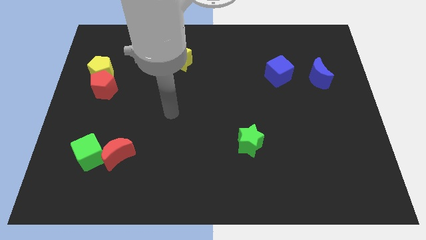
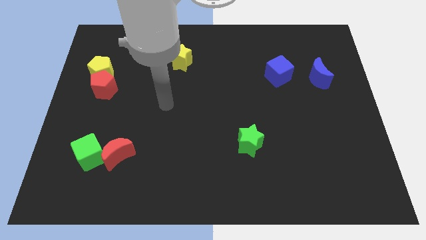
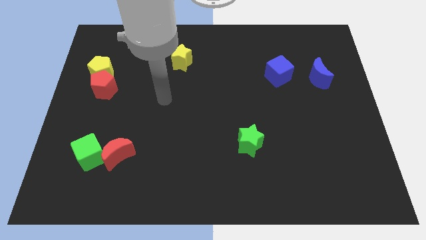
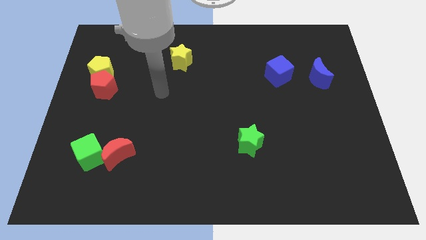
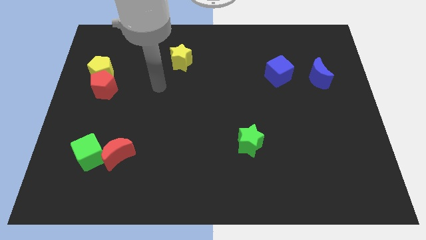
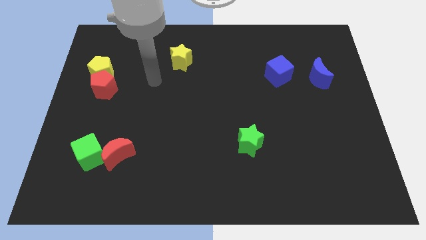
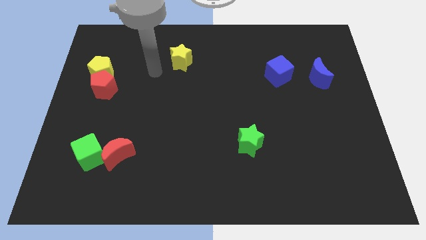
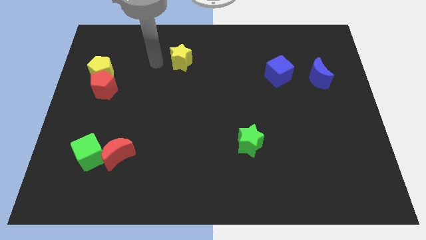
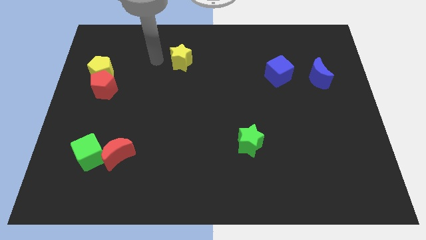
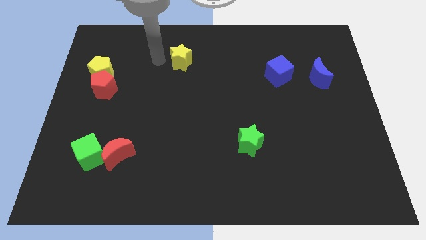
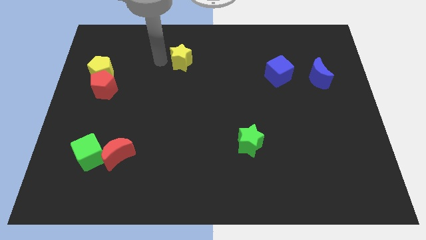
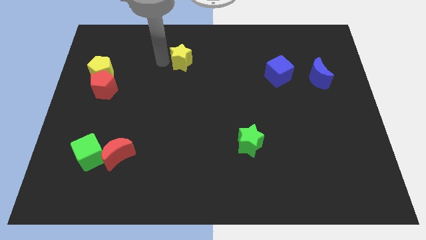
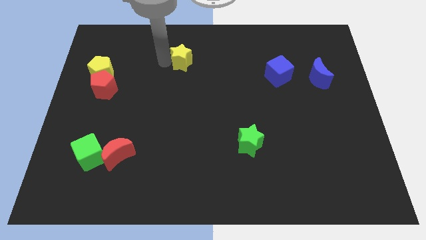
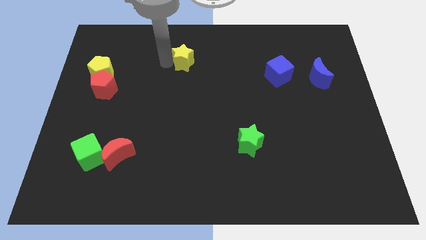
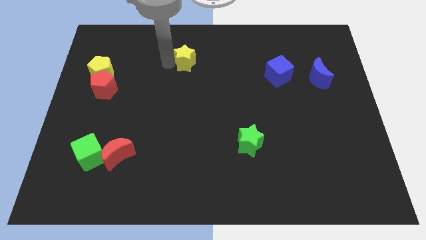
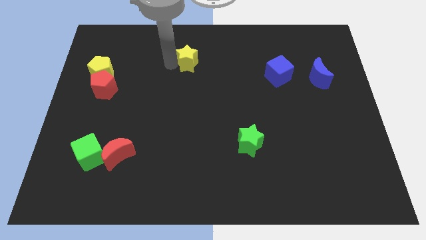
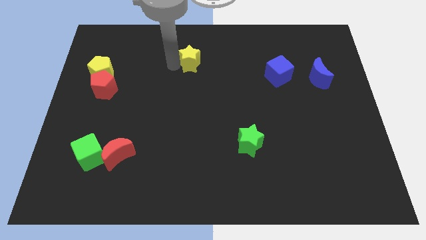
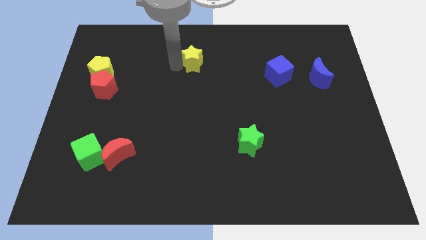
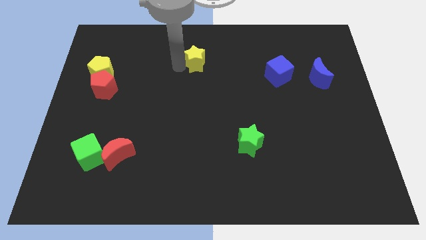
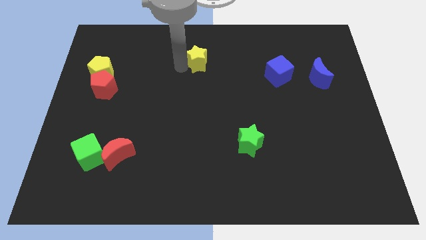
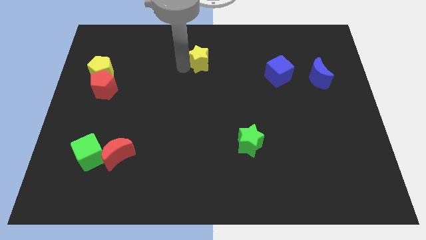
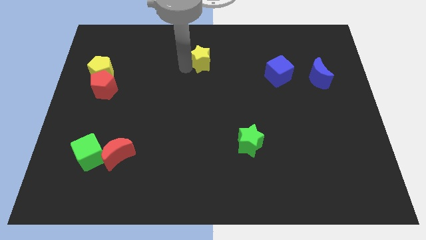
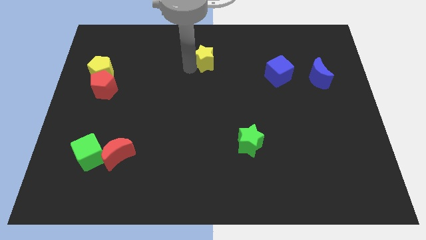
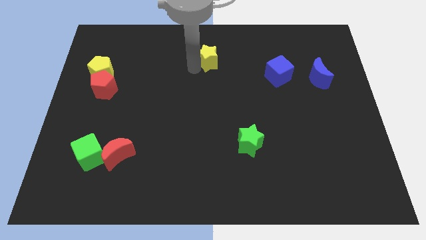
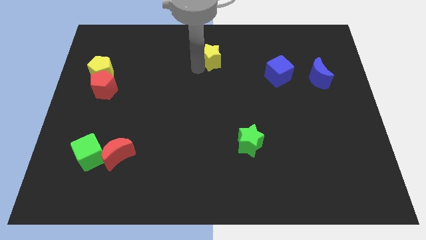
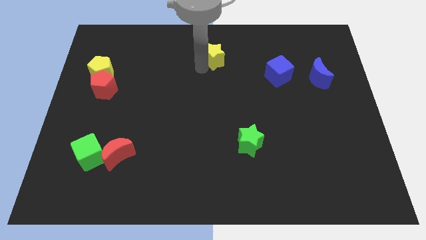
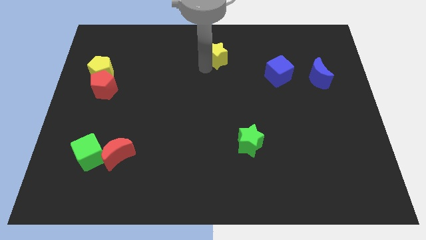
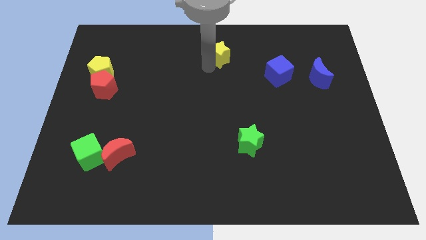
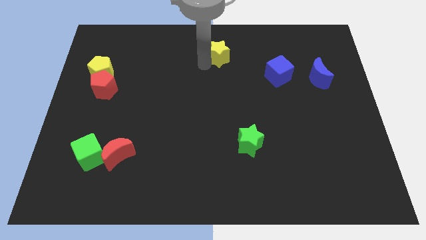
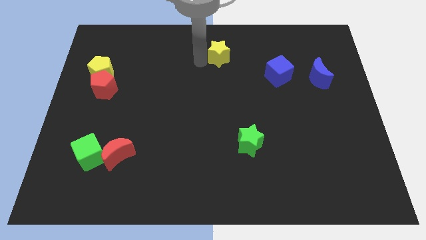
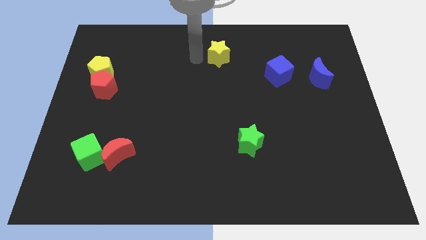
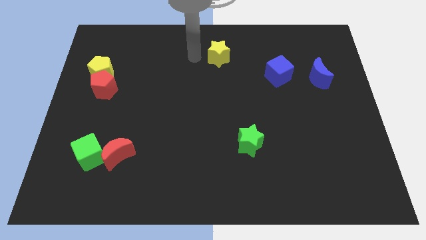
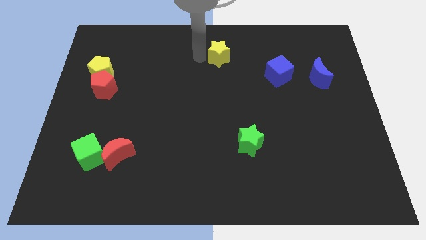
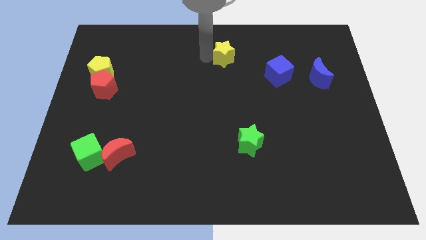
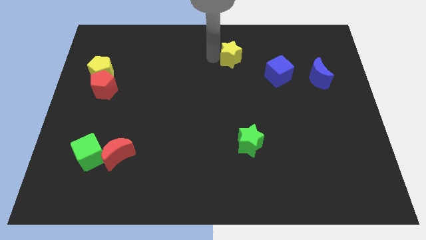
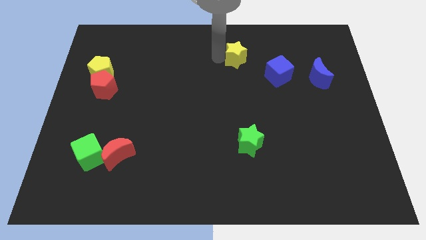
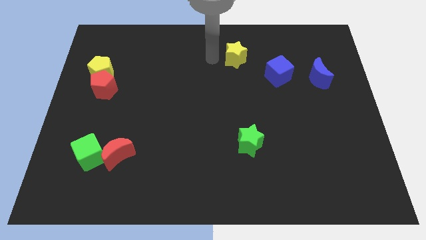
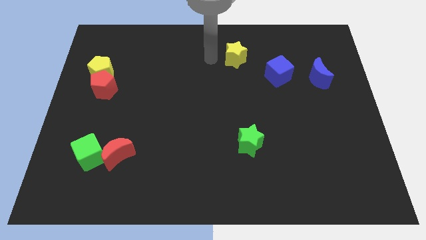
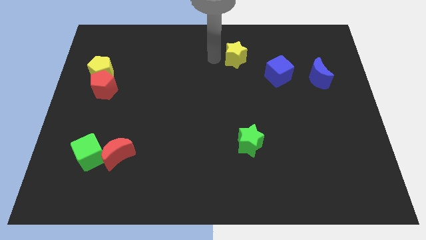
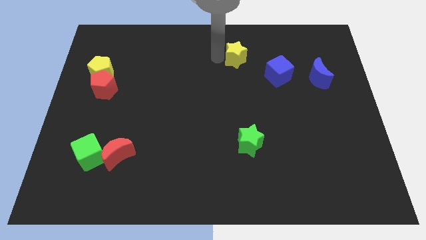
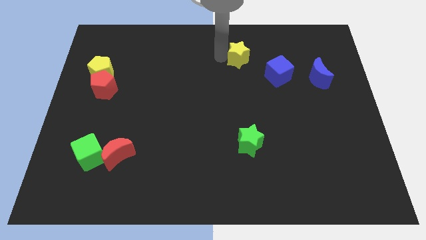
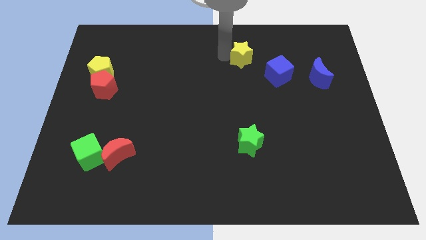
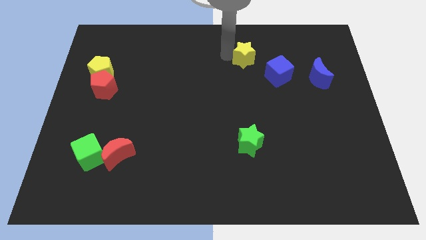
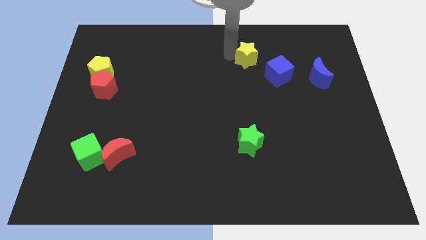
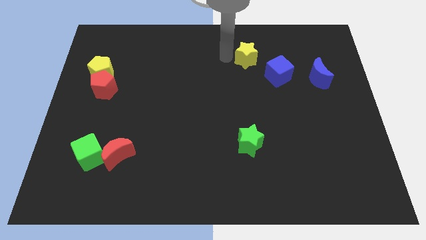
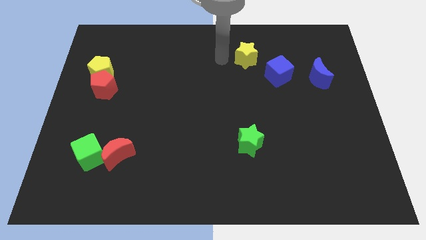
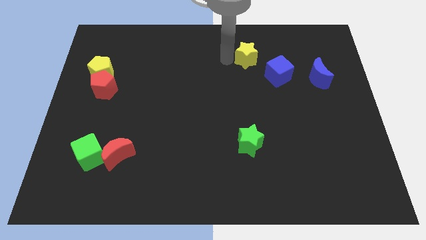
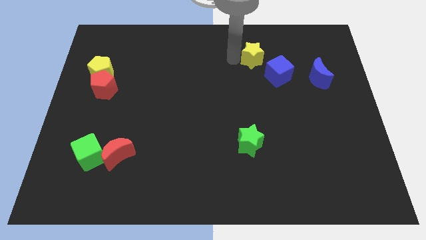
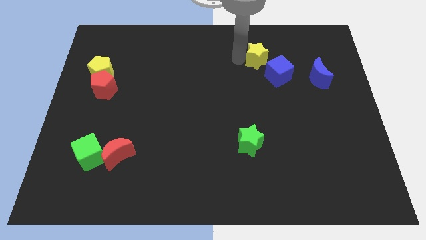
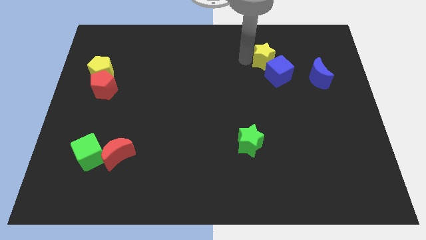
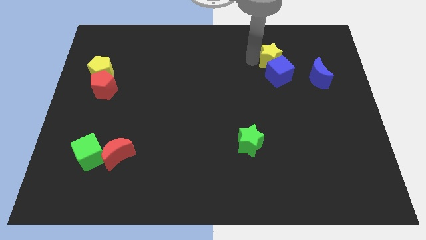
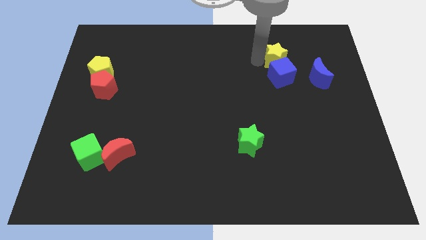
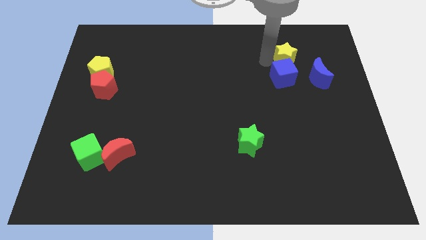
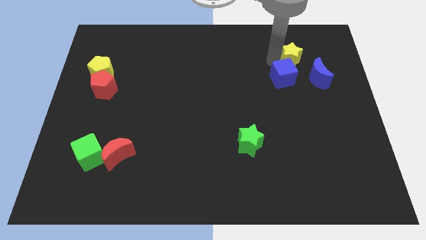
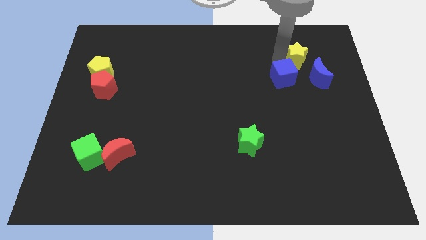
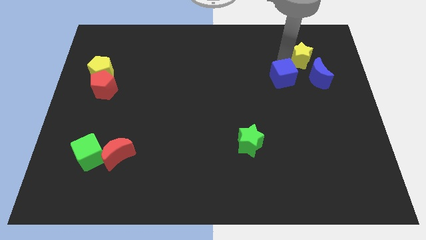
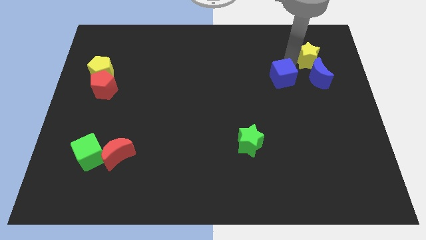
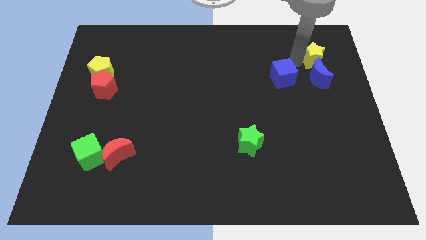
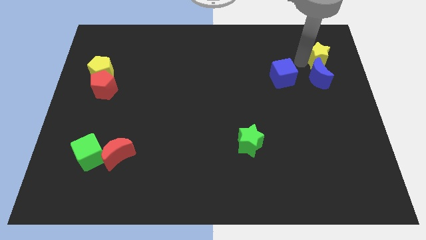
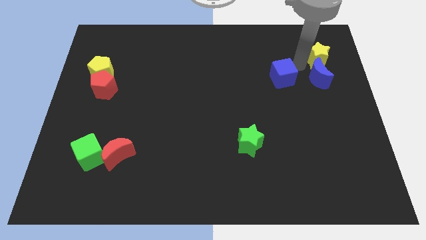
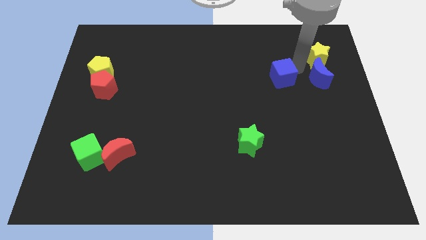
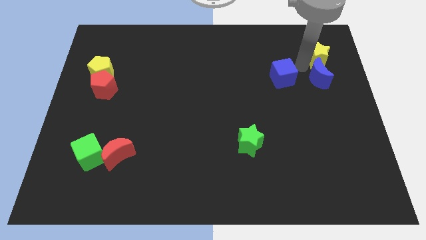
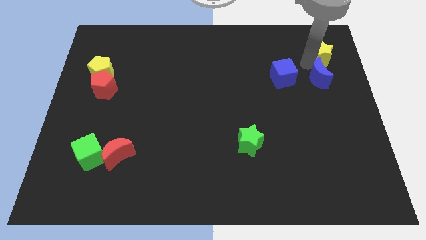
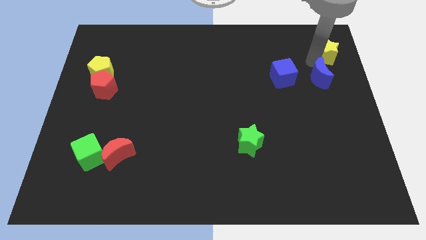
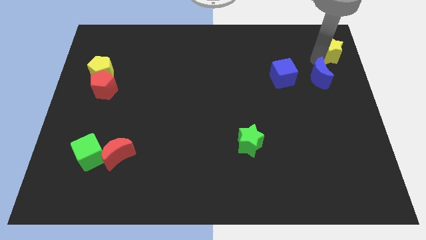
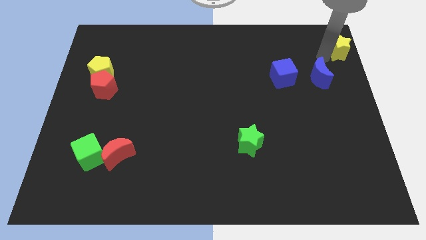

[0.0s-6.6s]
push the yellow star to the upper right corner
